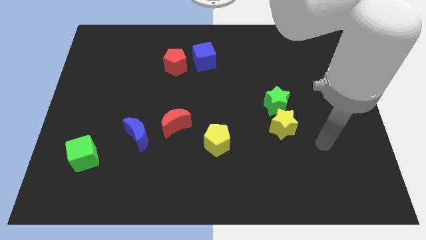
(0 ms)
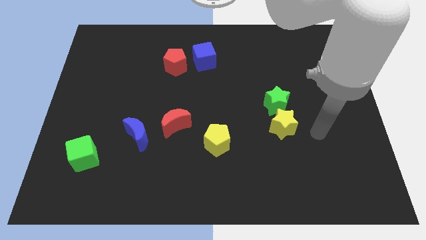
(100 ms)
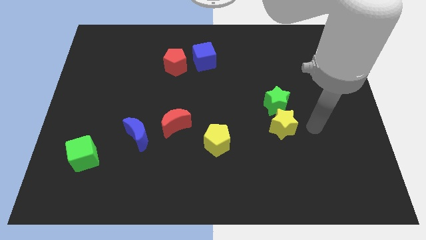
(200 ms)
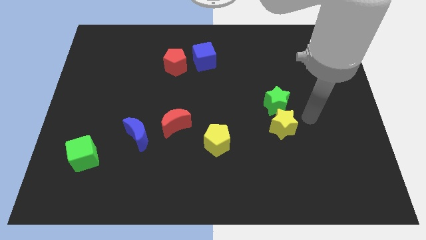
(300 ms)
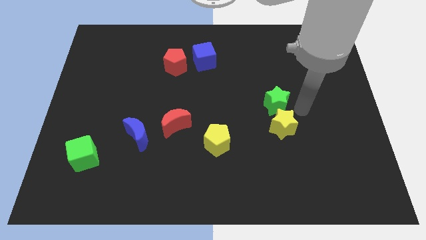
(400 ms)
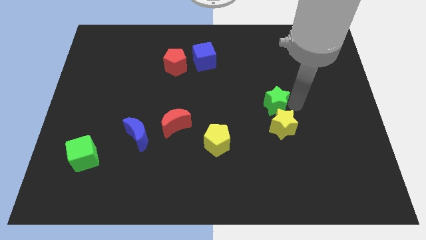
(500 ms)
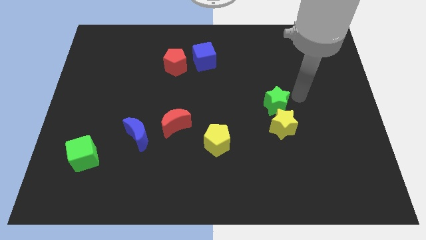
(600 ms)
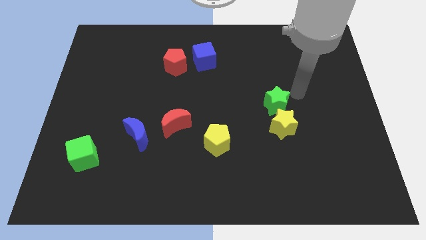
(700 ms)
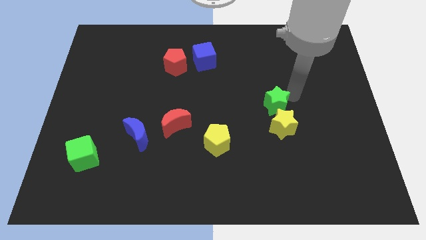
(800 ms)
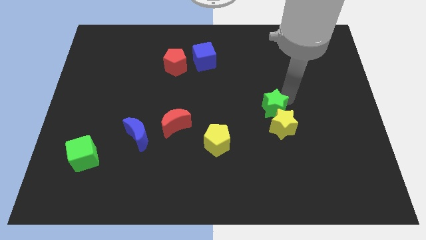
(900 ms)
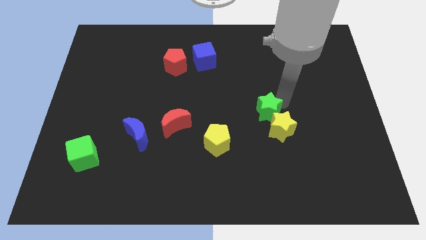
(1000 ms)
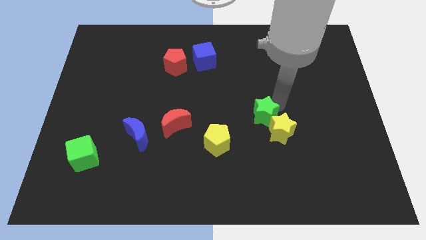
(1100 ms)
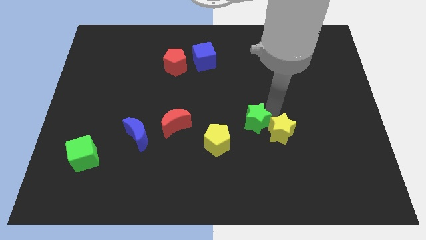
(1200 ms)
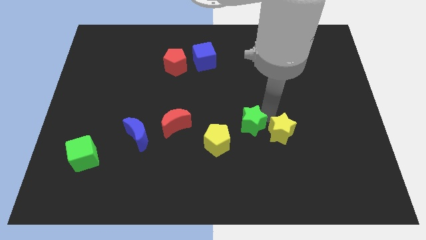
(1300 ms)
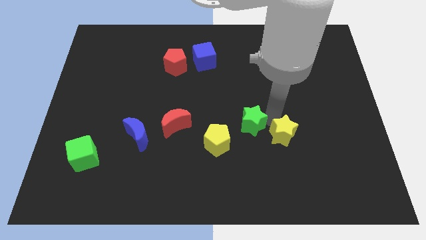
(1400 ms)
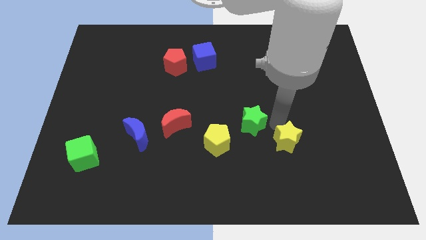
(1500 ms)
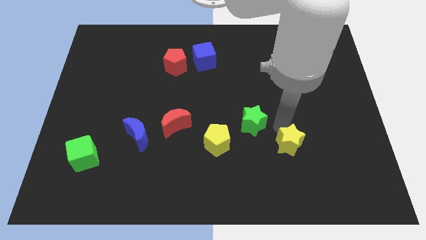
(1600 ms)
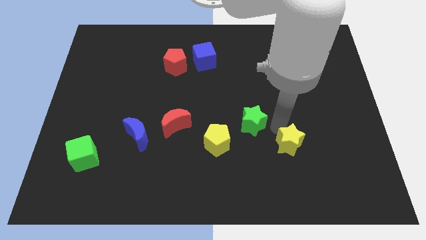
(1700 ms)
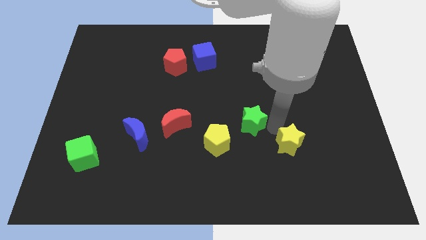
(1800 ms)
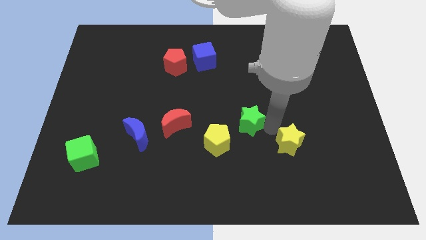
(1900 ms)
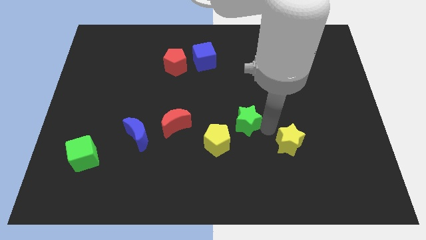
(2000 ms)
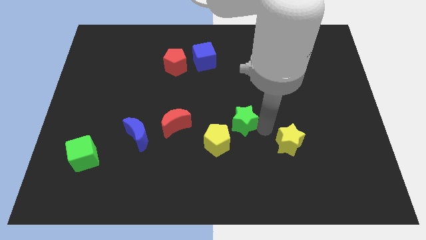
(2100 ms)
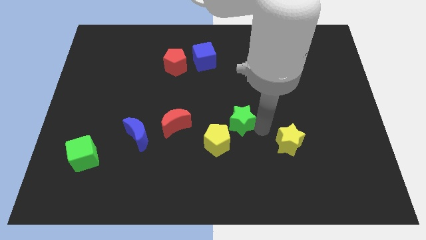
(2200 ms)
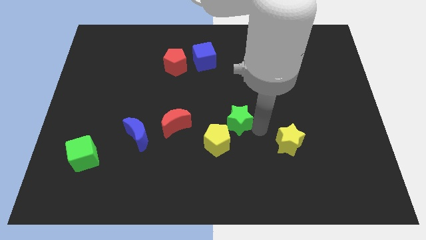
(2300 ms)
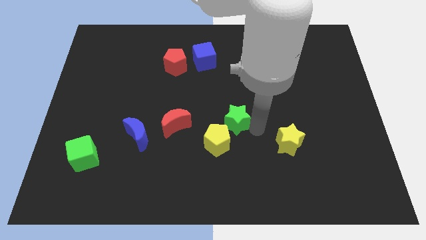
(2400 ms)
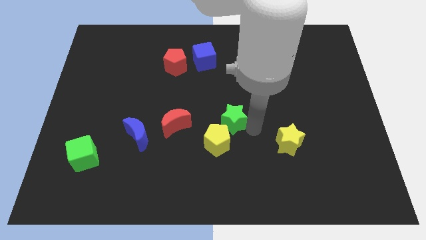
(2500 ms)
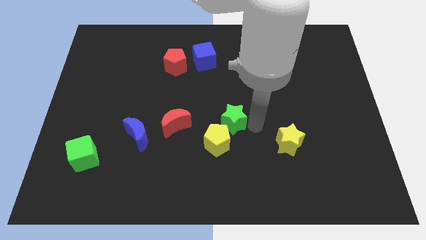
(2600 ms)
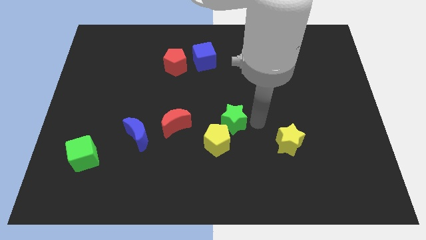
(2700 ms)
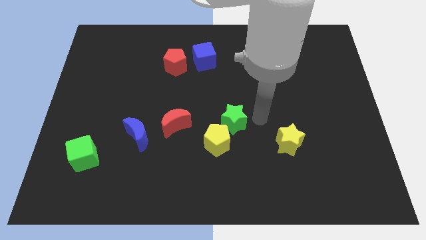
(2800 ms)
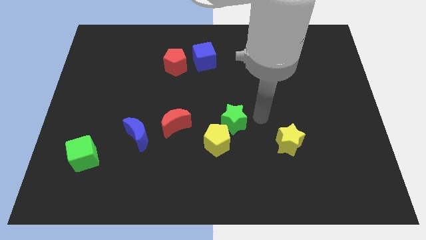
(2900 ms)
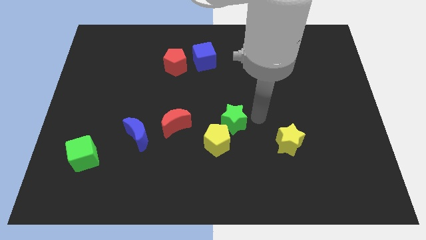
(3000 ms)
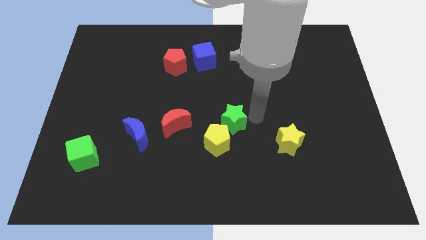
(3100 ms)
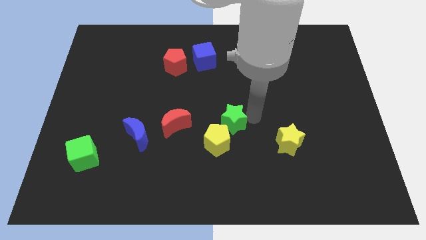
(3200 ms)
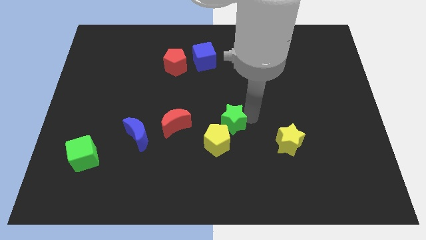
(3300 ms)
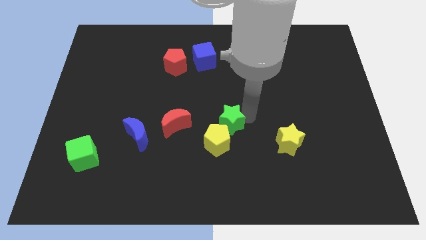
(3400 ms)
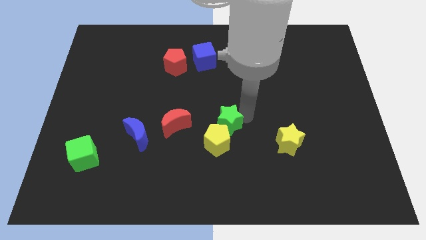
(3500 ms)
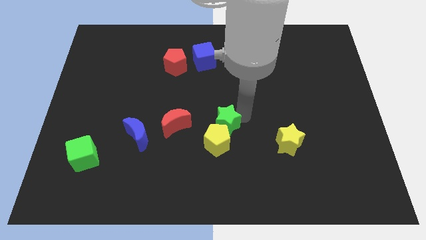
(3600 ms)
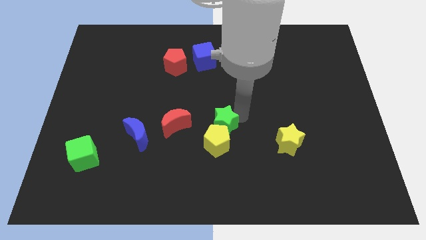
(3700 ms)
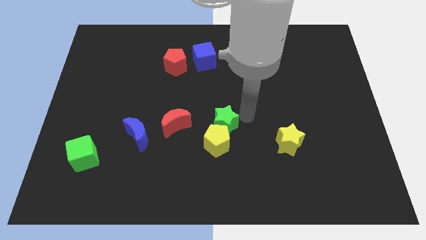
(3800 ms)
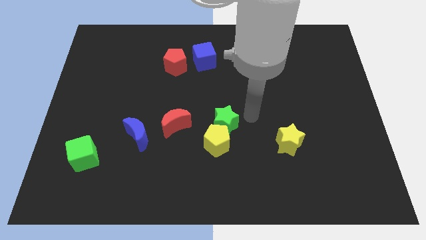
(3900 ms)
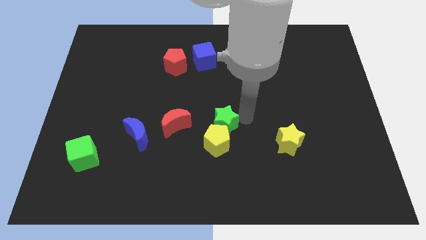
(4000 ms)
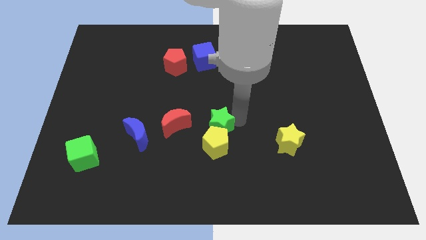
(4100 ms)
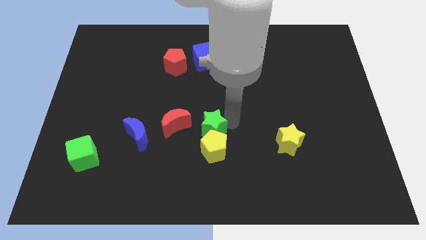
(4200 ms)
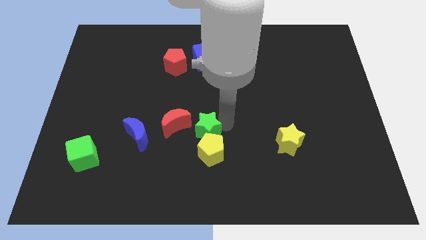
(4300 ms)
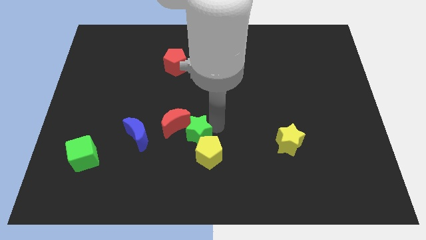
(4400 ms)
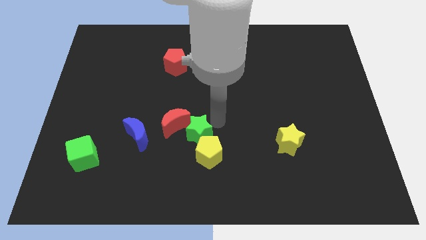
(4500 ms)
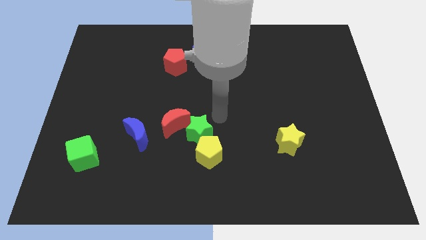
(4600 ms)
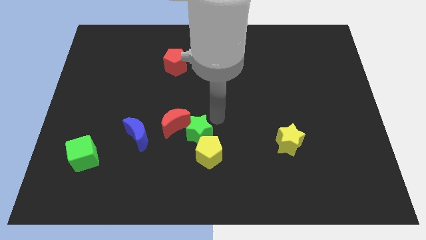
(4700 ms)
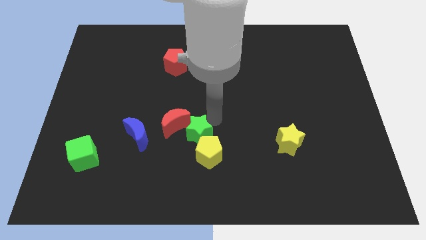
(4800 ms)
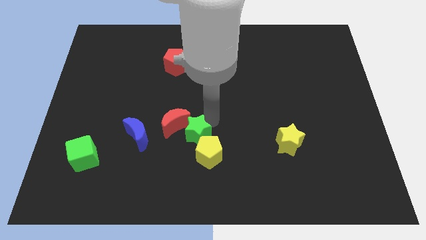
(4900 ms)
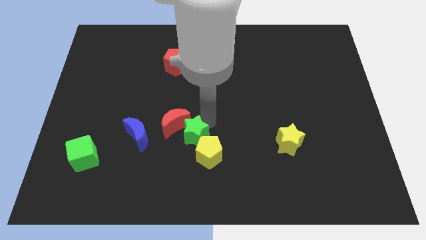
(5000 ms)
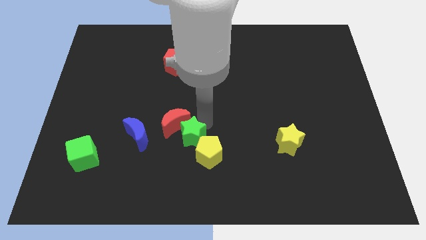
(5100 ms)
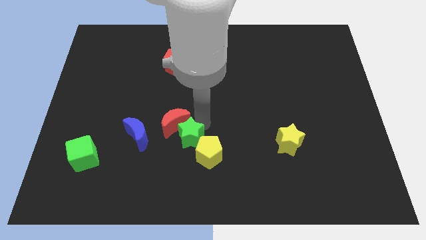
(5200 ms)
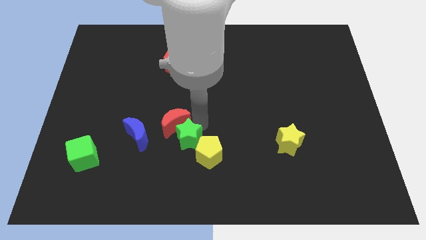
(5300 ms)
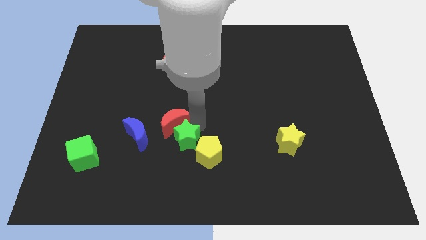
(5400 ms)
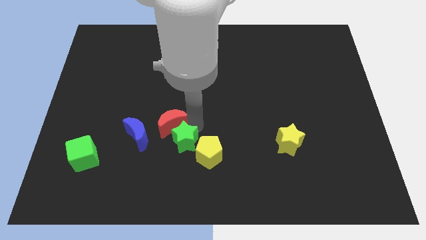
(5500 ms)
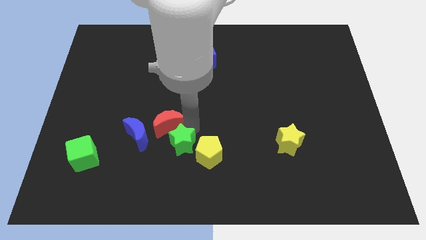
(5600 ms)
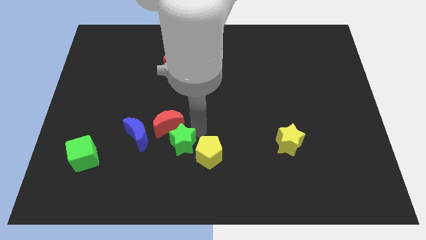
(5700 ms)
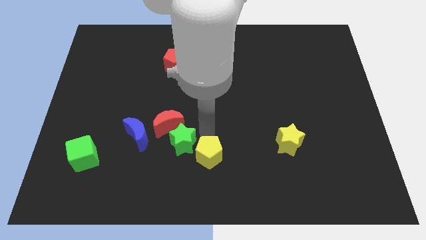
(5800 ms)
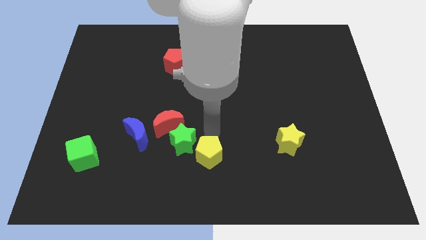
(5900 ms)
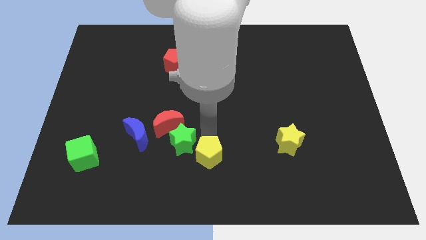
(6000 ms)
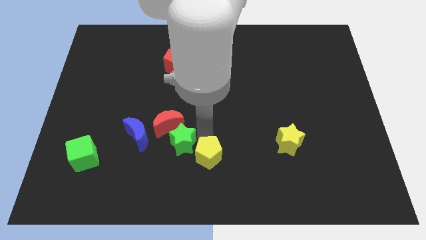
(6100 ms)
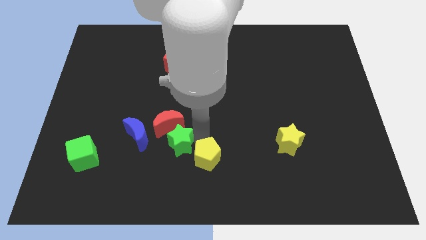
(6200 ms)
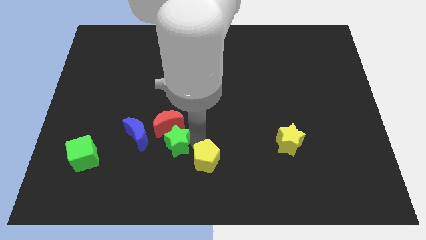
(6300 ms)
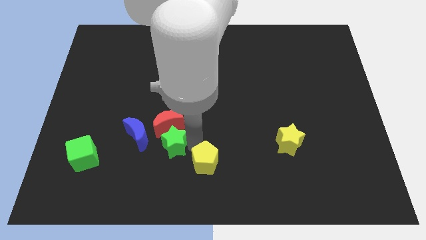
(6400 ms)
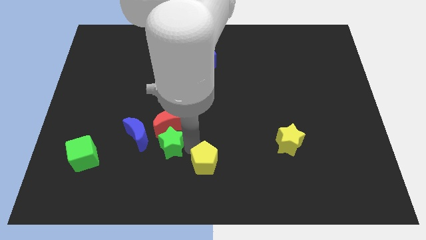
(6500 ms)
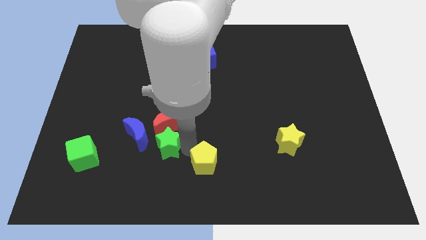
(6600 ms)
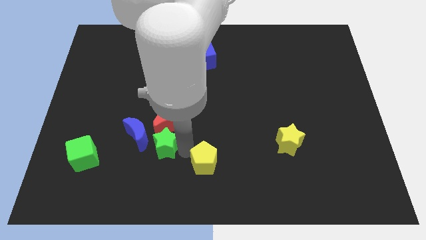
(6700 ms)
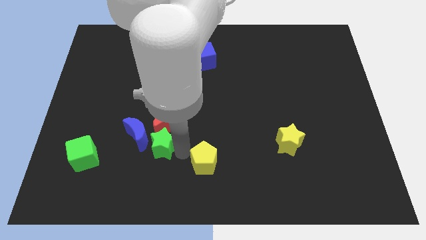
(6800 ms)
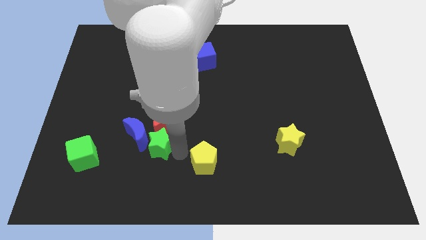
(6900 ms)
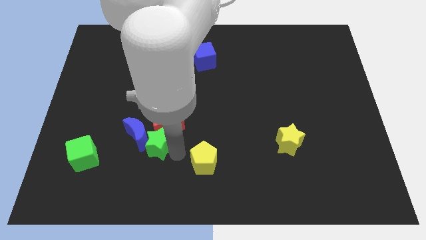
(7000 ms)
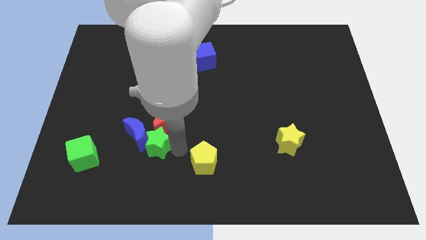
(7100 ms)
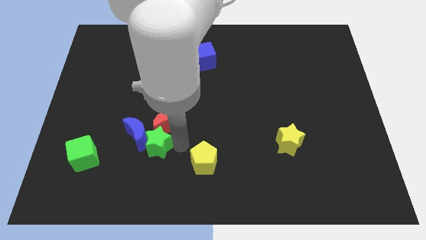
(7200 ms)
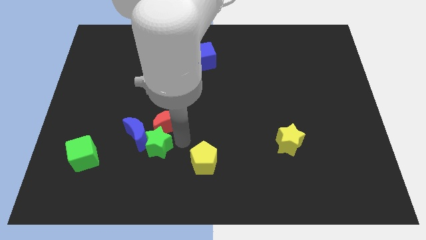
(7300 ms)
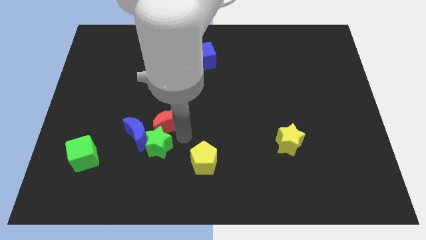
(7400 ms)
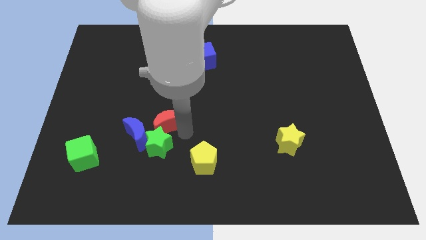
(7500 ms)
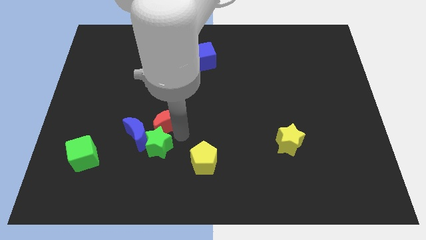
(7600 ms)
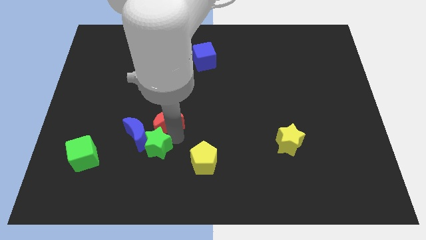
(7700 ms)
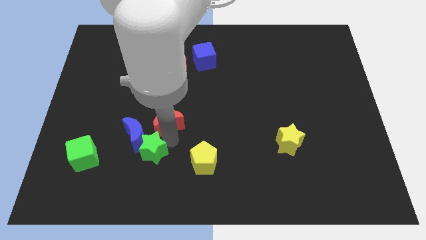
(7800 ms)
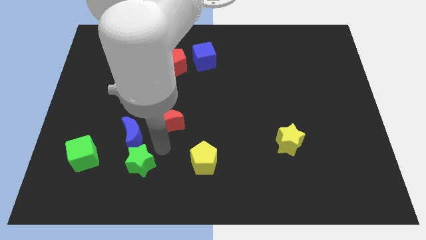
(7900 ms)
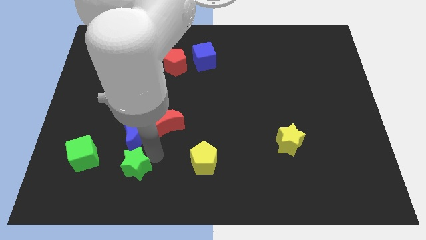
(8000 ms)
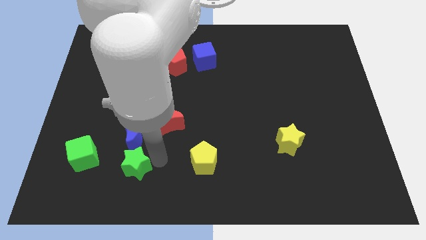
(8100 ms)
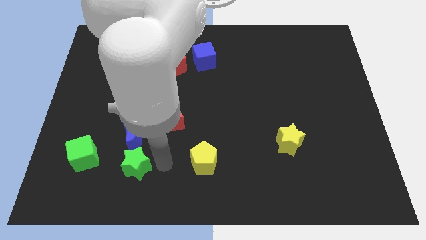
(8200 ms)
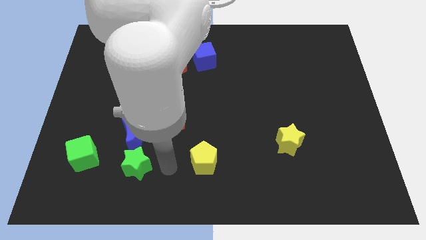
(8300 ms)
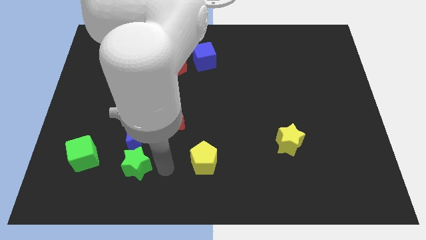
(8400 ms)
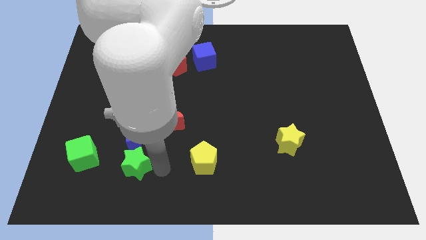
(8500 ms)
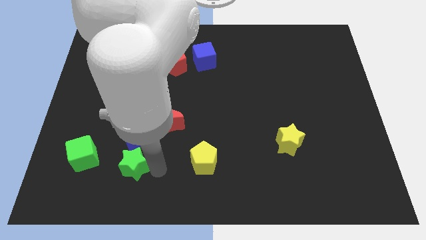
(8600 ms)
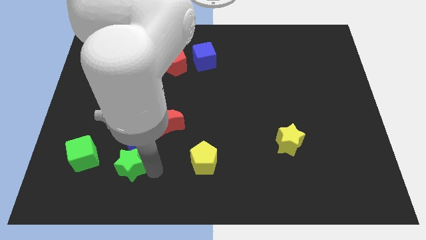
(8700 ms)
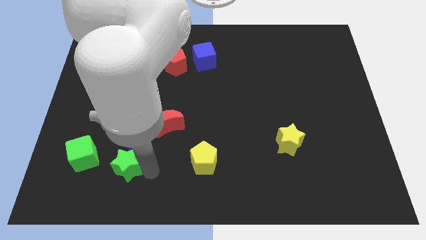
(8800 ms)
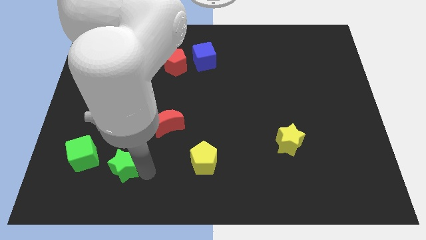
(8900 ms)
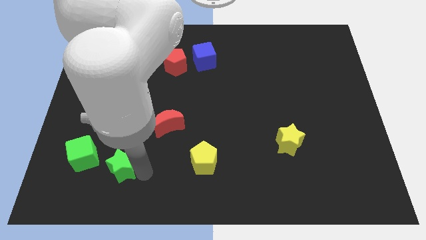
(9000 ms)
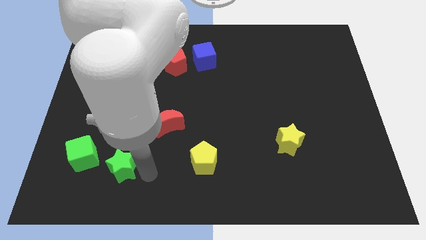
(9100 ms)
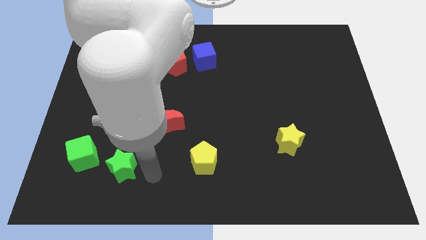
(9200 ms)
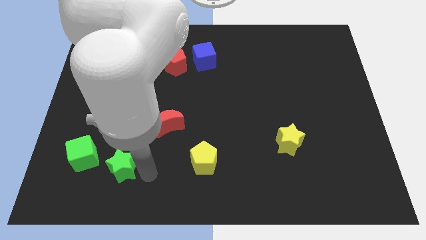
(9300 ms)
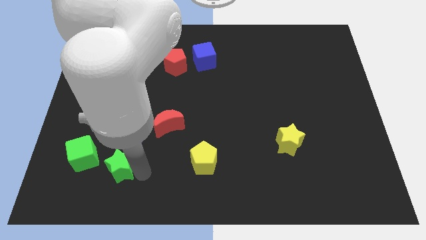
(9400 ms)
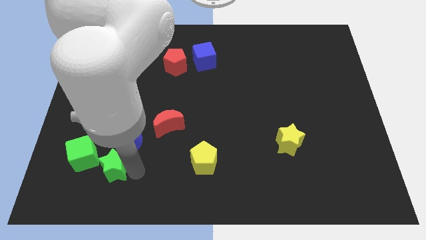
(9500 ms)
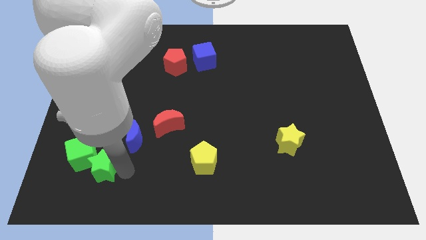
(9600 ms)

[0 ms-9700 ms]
push the green star close to the green cube
